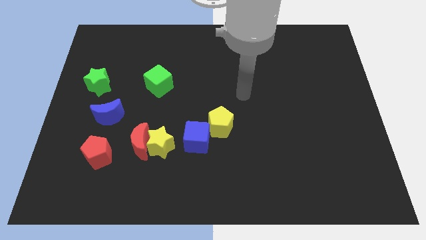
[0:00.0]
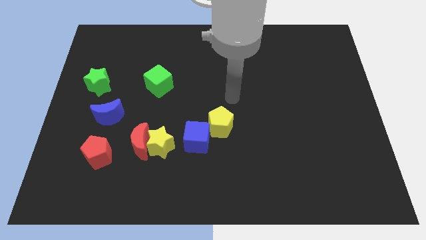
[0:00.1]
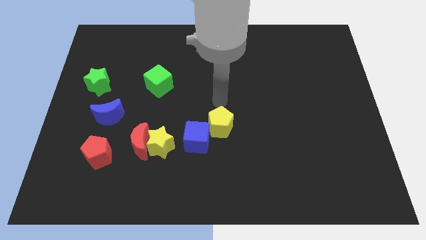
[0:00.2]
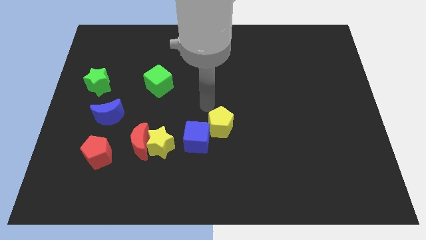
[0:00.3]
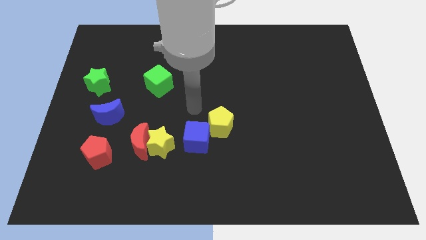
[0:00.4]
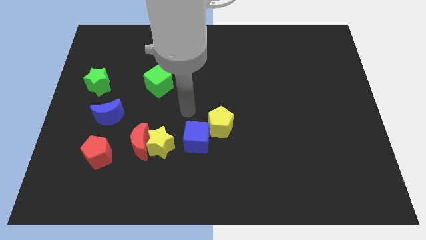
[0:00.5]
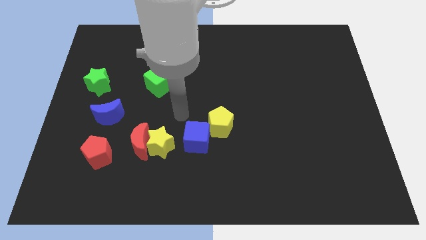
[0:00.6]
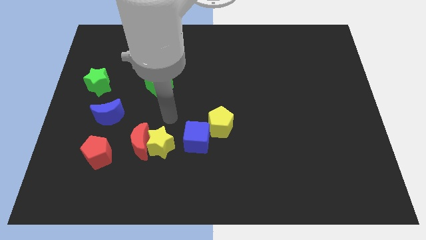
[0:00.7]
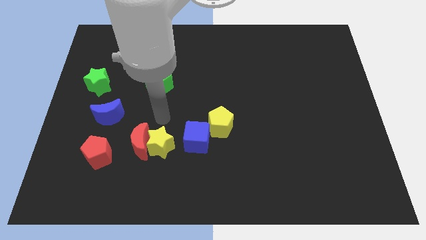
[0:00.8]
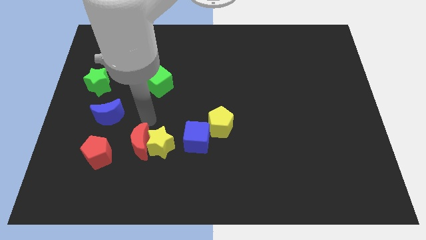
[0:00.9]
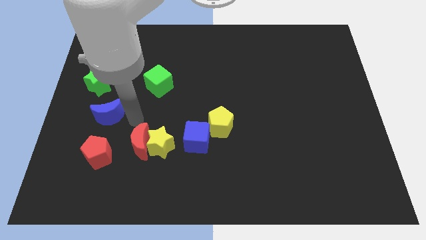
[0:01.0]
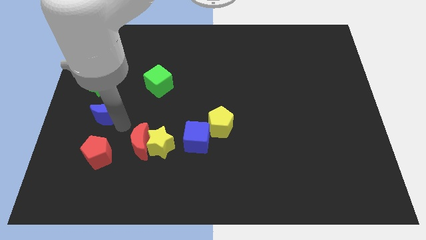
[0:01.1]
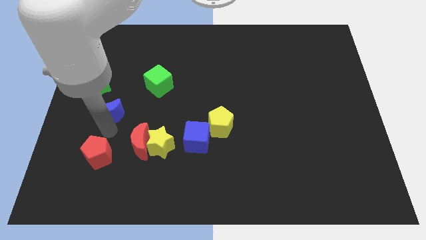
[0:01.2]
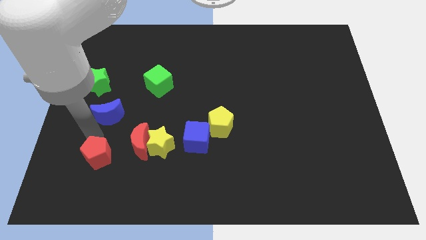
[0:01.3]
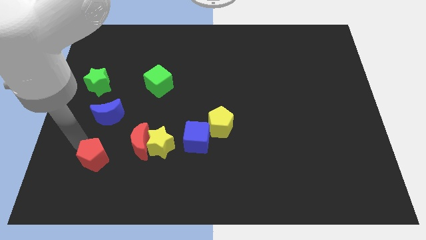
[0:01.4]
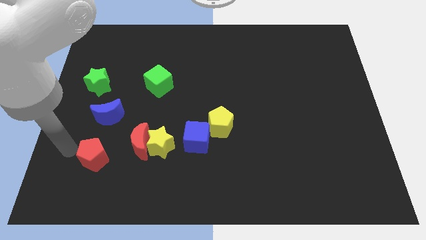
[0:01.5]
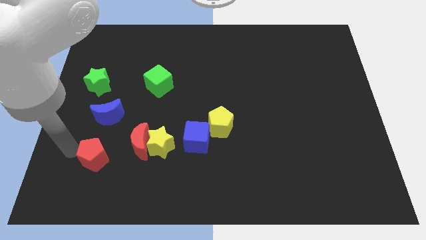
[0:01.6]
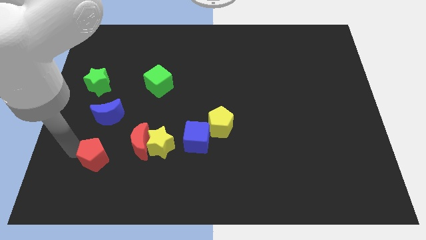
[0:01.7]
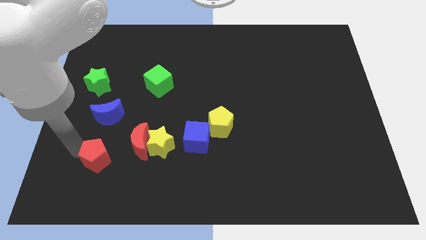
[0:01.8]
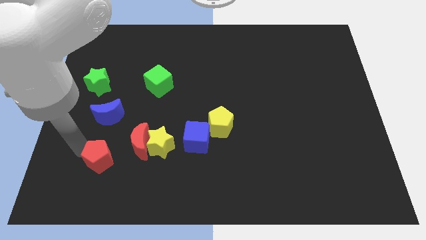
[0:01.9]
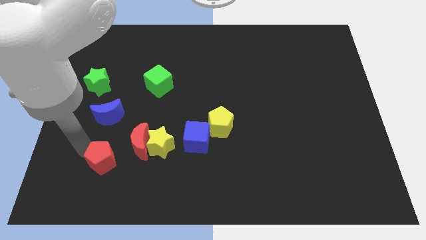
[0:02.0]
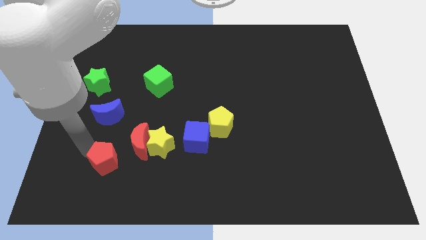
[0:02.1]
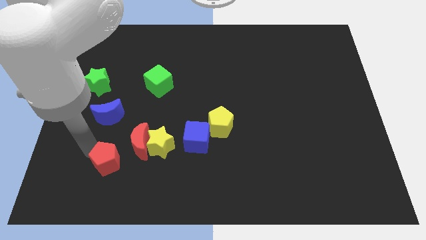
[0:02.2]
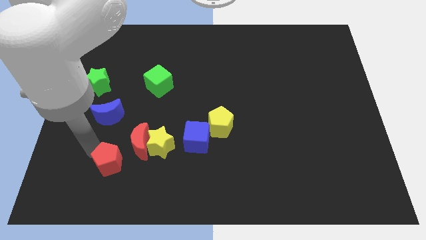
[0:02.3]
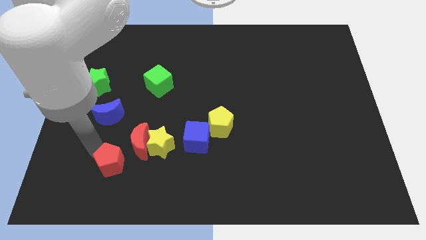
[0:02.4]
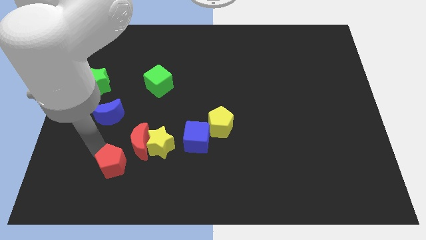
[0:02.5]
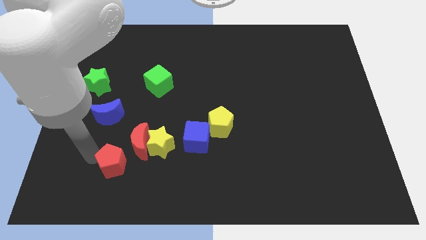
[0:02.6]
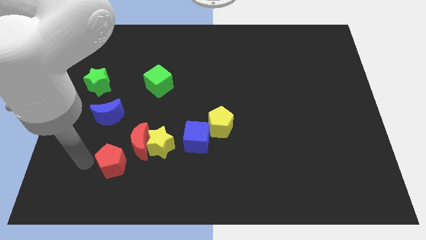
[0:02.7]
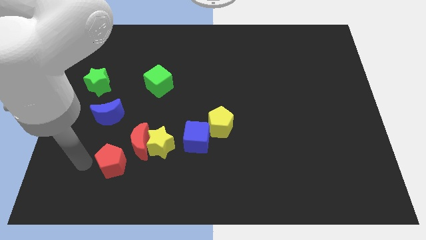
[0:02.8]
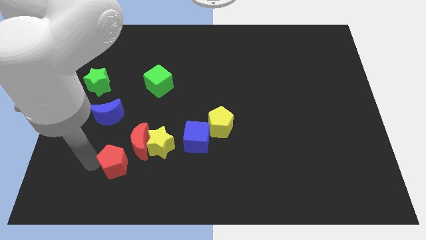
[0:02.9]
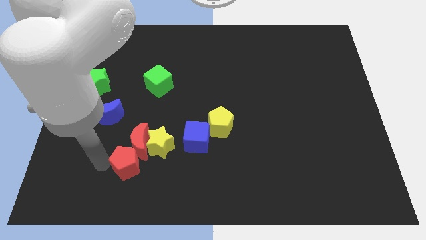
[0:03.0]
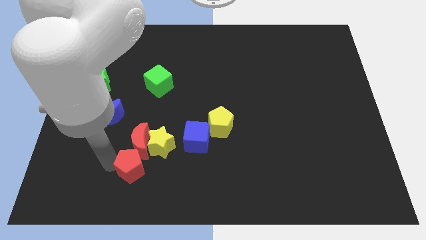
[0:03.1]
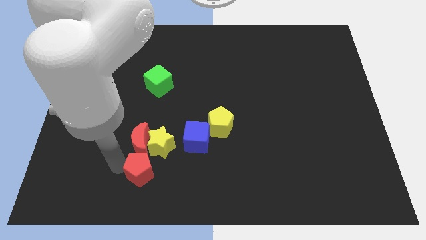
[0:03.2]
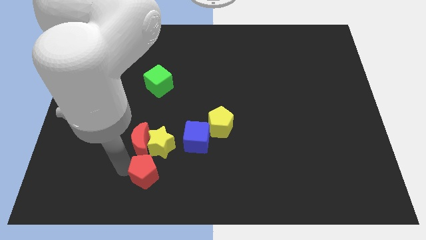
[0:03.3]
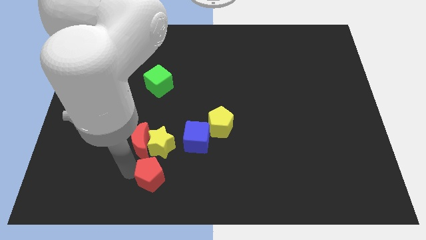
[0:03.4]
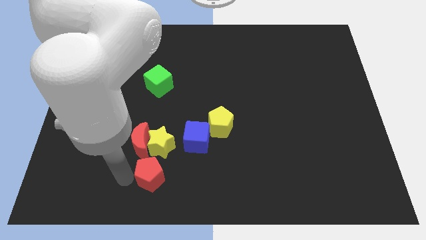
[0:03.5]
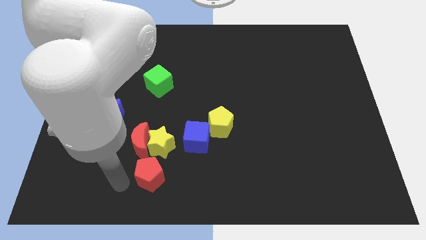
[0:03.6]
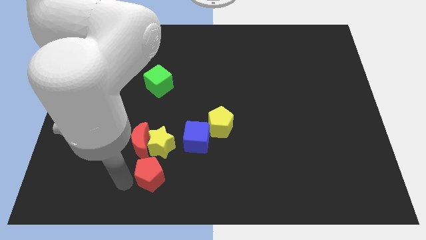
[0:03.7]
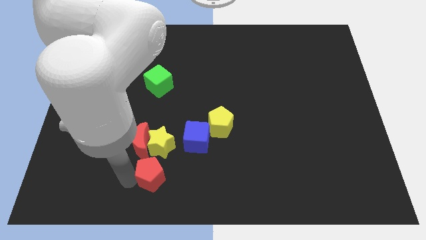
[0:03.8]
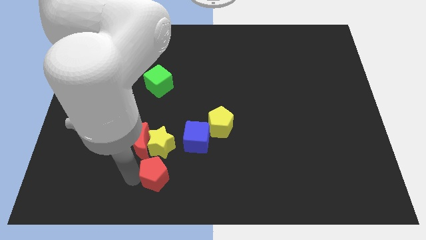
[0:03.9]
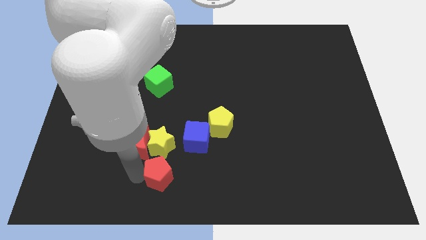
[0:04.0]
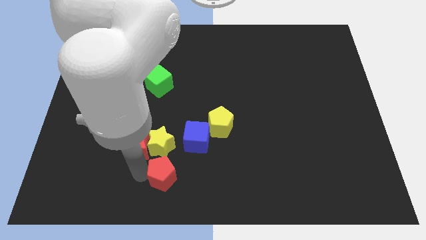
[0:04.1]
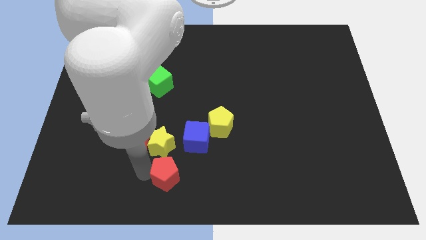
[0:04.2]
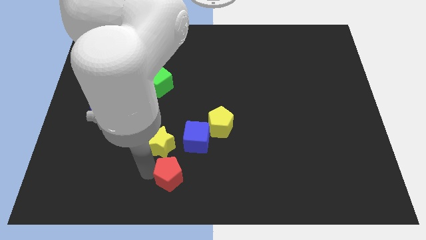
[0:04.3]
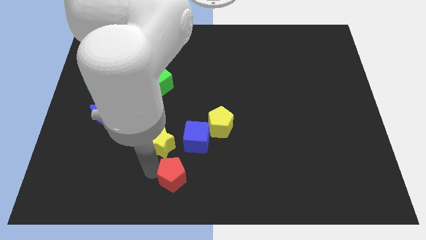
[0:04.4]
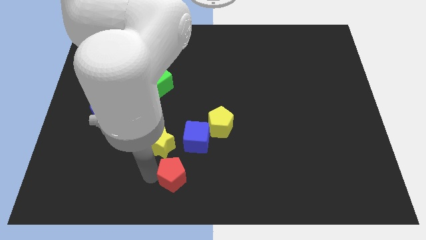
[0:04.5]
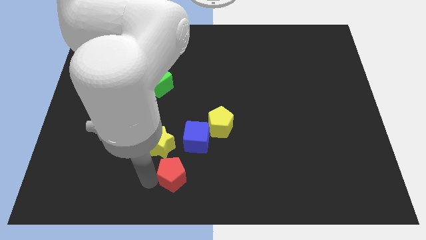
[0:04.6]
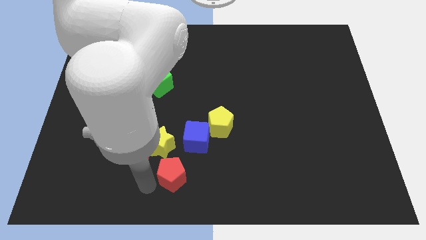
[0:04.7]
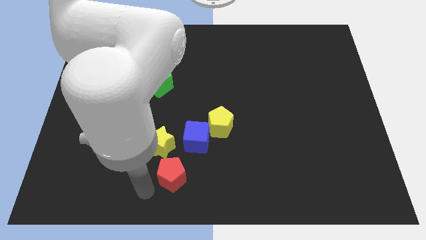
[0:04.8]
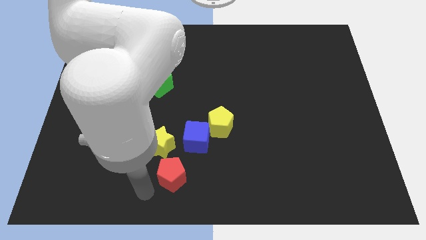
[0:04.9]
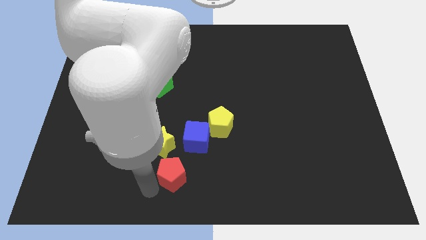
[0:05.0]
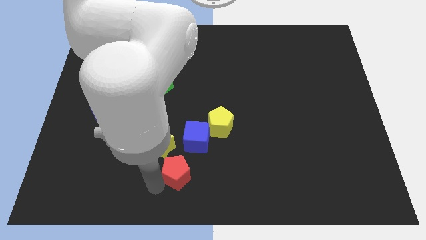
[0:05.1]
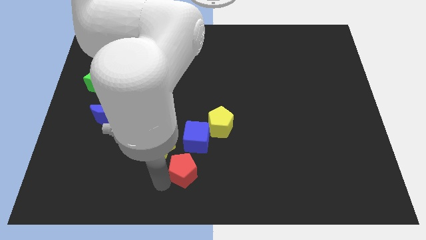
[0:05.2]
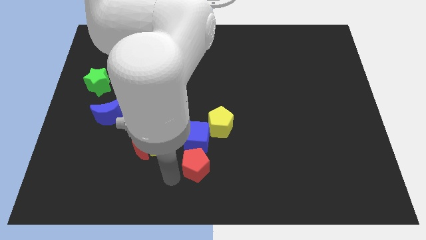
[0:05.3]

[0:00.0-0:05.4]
slide the red pentagon right

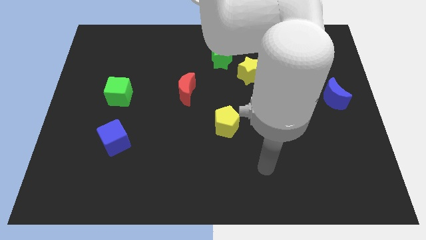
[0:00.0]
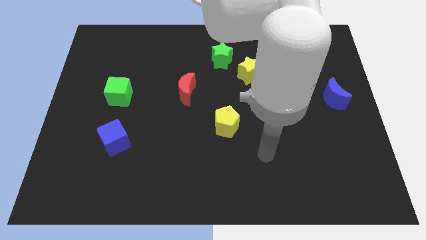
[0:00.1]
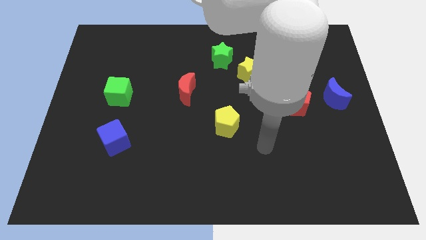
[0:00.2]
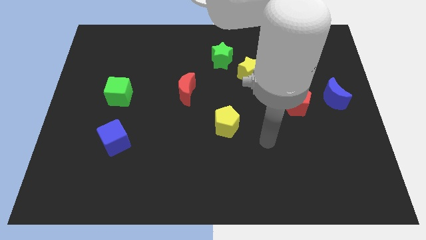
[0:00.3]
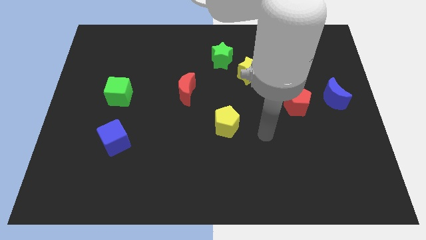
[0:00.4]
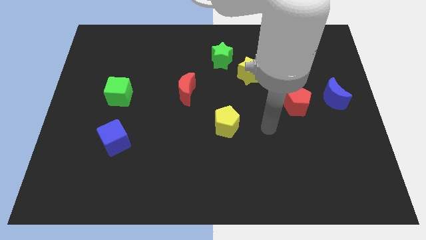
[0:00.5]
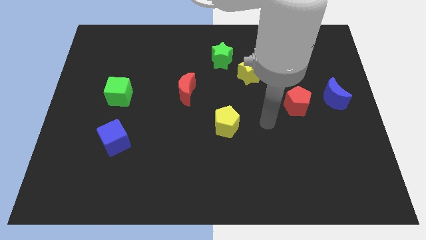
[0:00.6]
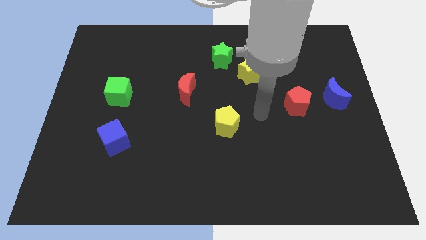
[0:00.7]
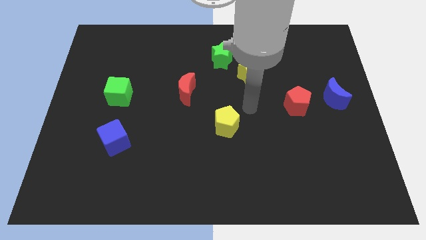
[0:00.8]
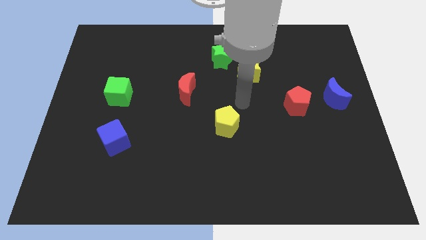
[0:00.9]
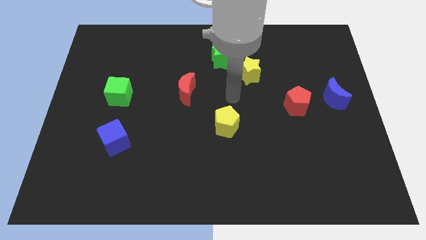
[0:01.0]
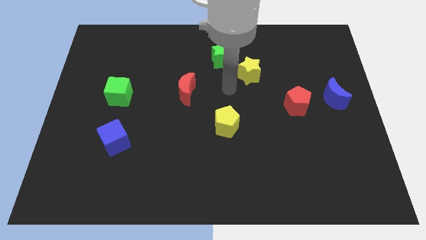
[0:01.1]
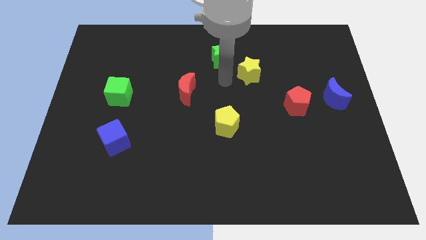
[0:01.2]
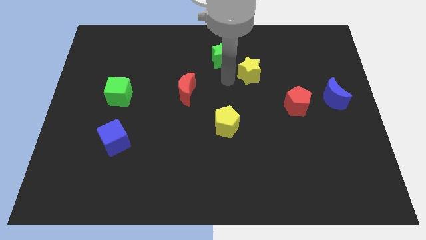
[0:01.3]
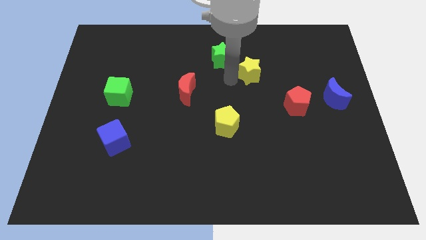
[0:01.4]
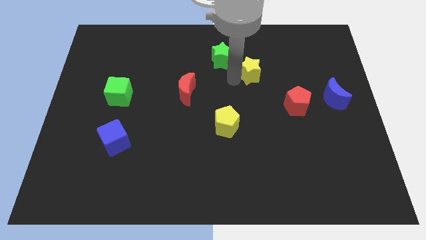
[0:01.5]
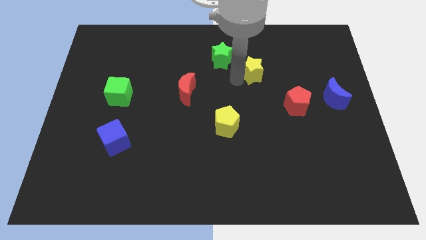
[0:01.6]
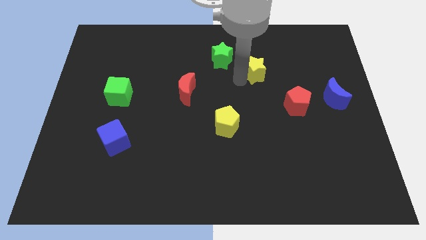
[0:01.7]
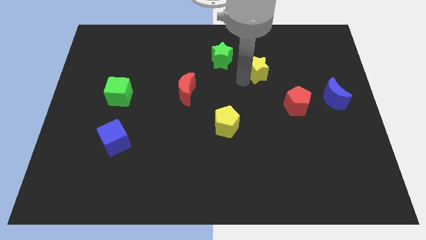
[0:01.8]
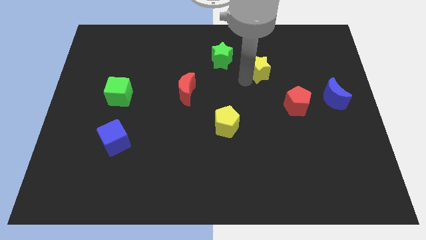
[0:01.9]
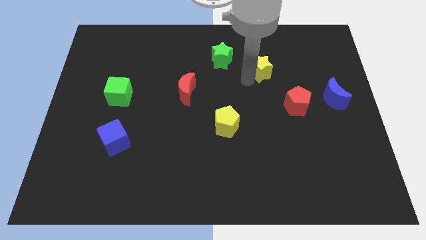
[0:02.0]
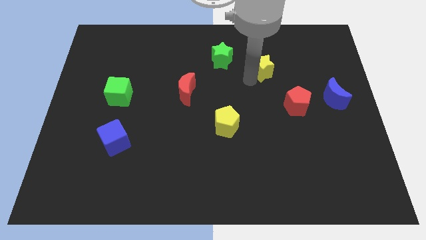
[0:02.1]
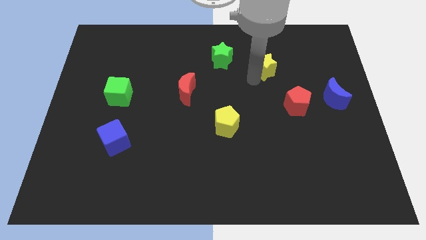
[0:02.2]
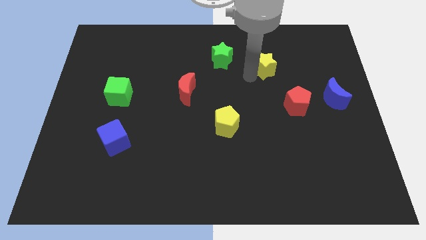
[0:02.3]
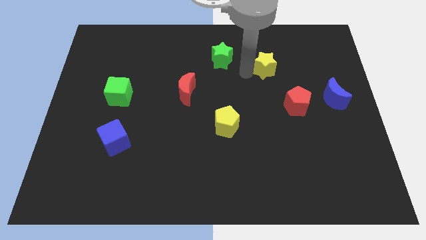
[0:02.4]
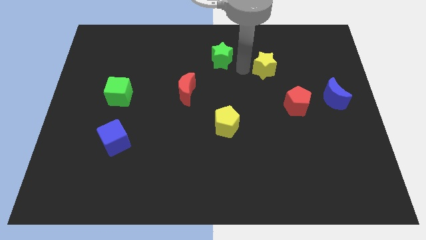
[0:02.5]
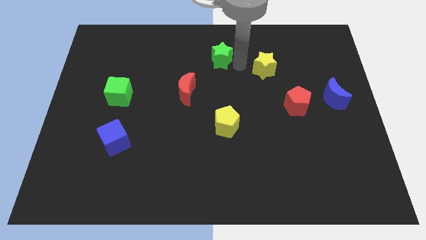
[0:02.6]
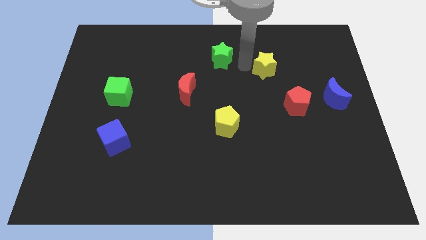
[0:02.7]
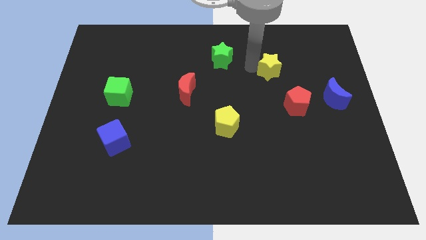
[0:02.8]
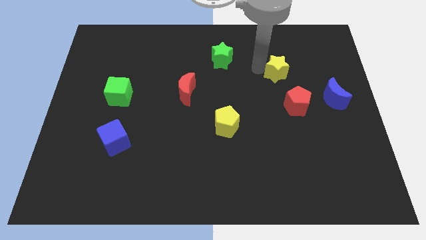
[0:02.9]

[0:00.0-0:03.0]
slide the yellow star somewhat right
